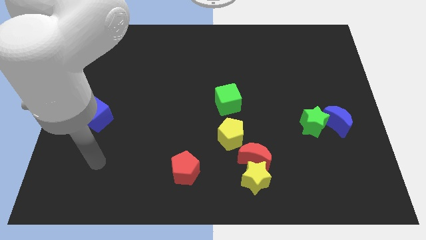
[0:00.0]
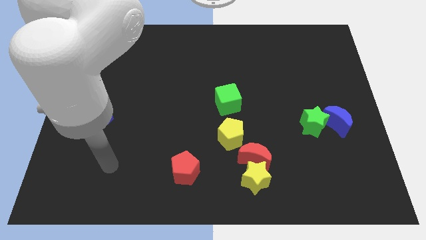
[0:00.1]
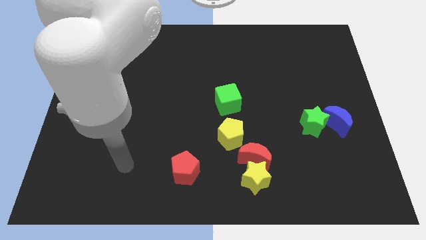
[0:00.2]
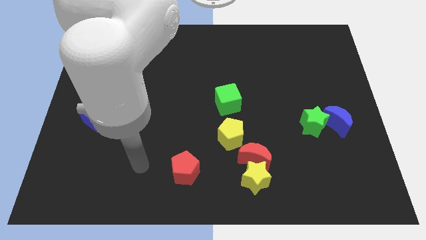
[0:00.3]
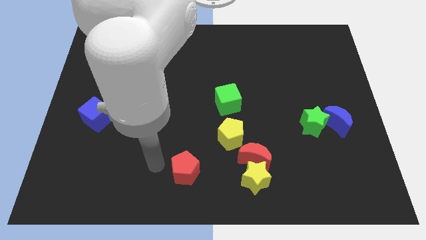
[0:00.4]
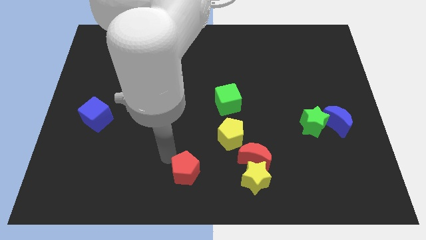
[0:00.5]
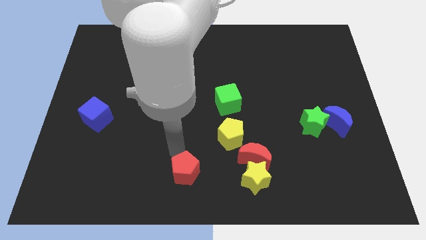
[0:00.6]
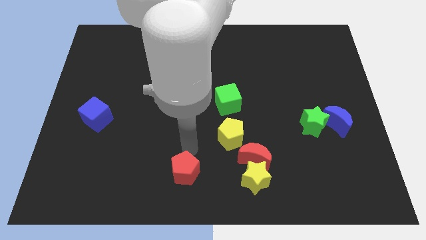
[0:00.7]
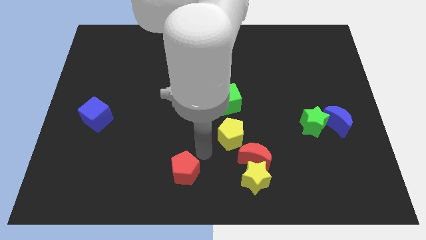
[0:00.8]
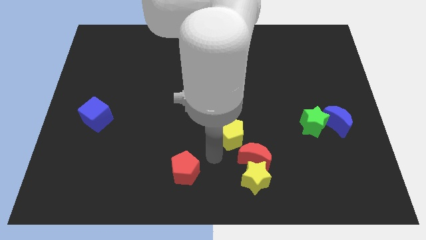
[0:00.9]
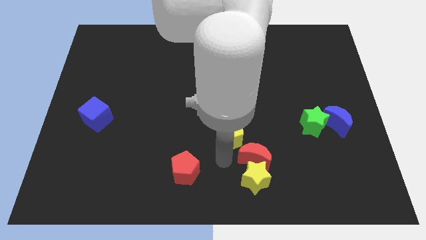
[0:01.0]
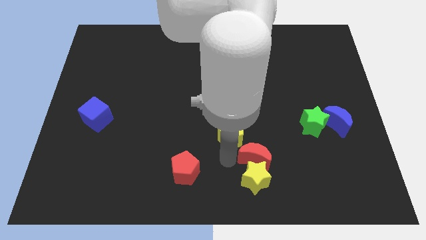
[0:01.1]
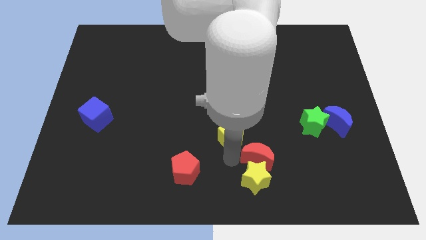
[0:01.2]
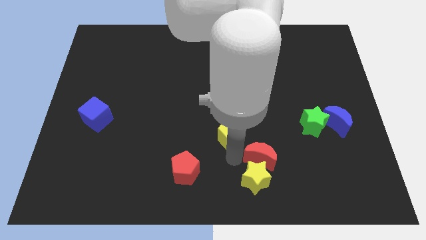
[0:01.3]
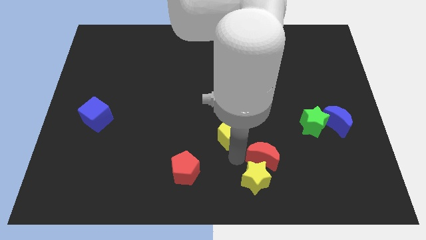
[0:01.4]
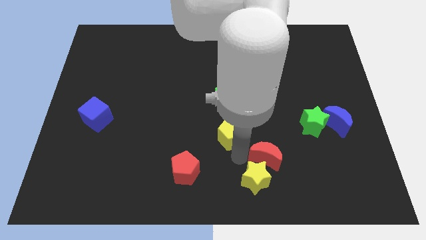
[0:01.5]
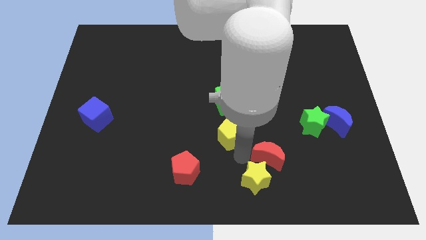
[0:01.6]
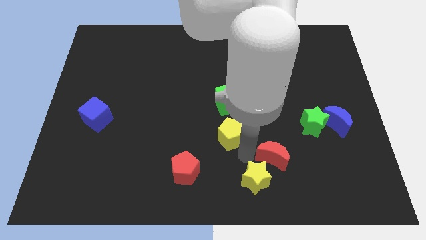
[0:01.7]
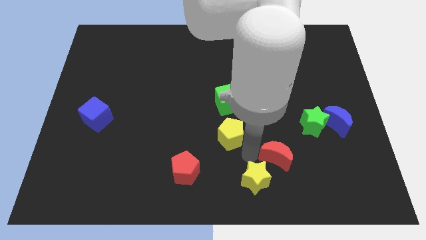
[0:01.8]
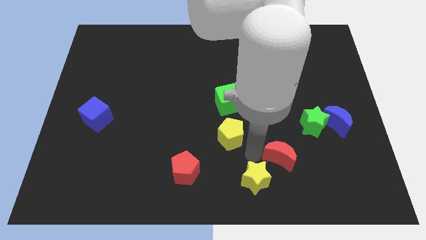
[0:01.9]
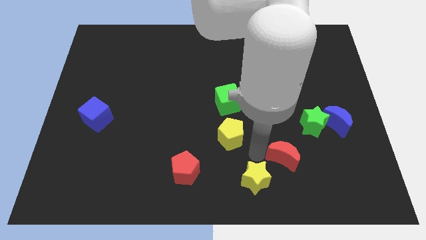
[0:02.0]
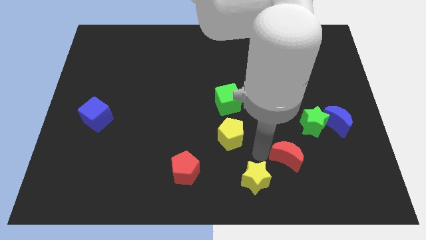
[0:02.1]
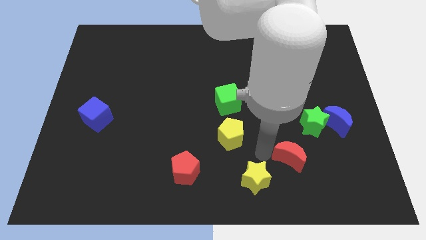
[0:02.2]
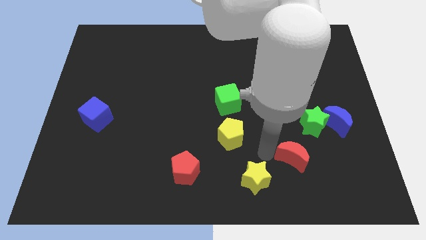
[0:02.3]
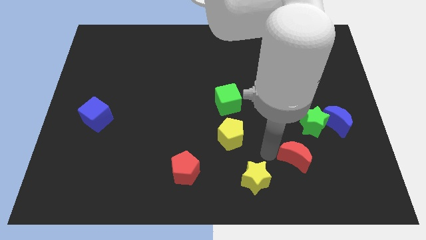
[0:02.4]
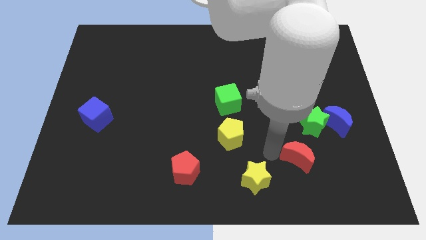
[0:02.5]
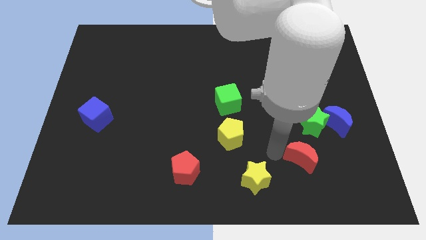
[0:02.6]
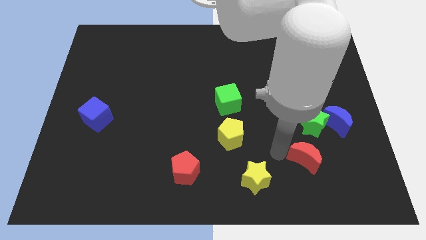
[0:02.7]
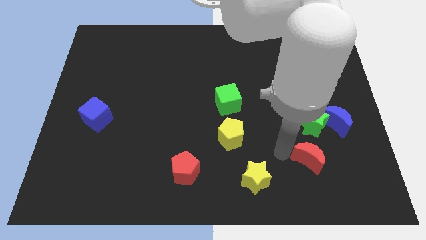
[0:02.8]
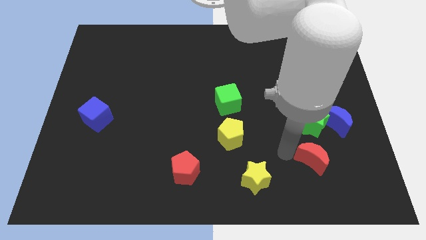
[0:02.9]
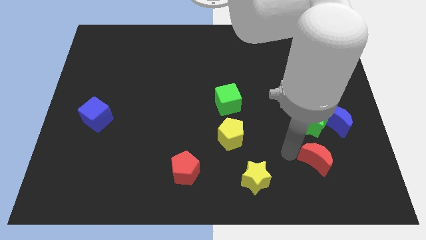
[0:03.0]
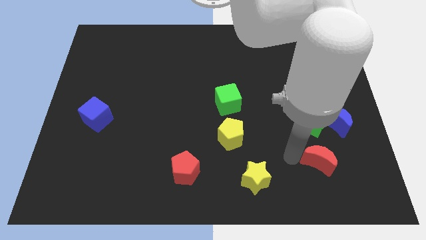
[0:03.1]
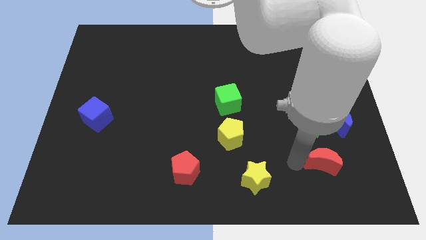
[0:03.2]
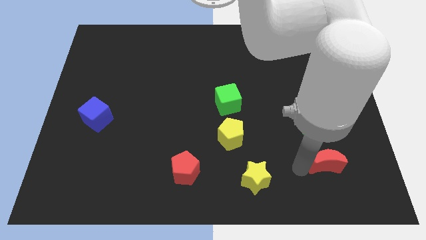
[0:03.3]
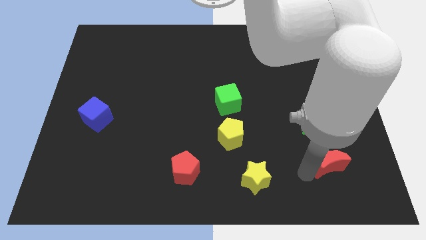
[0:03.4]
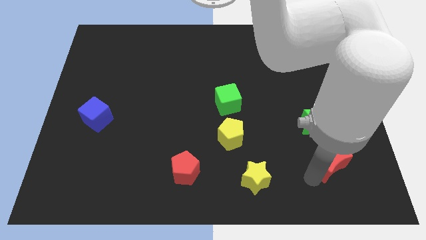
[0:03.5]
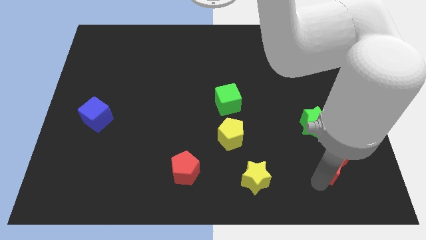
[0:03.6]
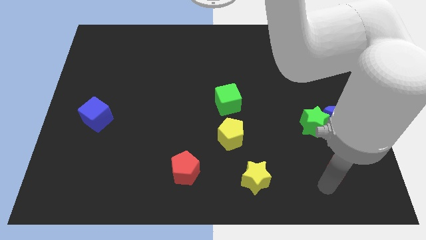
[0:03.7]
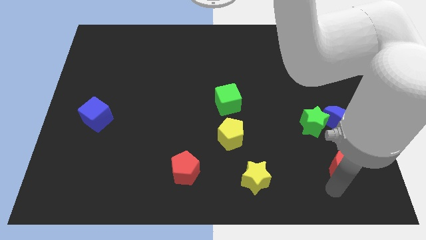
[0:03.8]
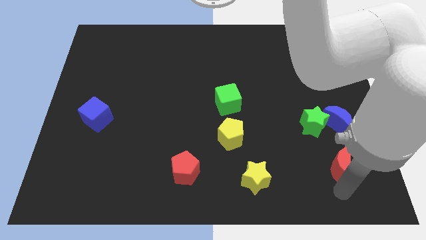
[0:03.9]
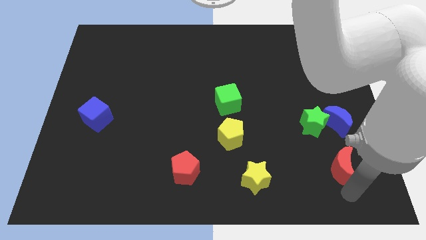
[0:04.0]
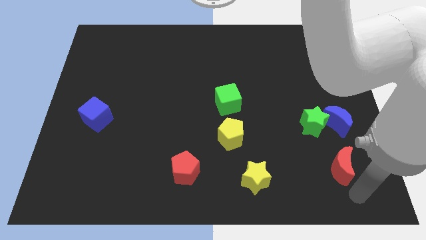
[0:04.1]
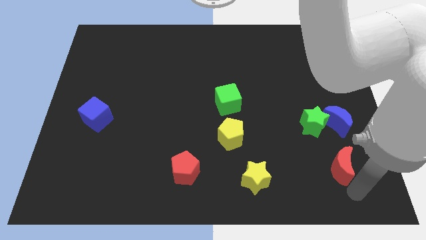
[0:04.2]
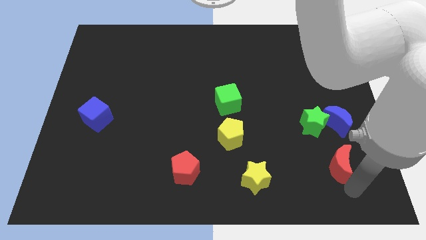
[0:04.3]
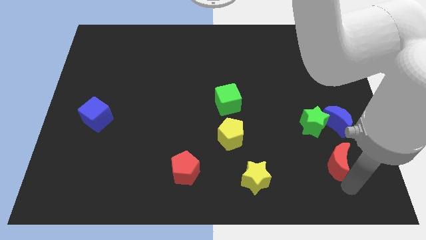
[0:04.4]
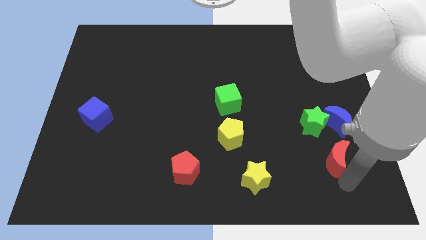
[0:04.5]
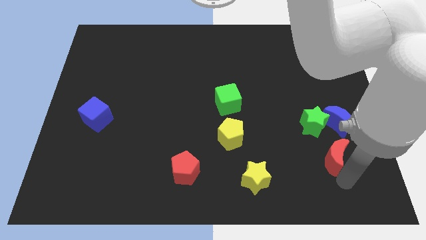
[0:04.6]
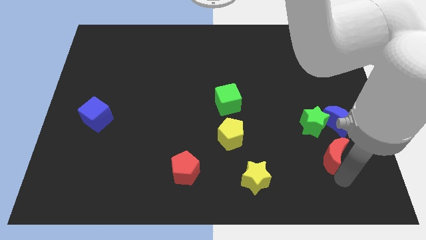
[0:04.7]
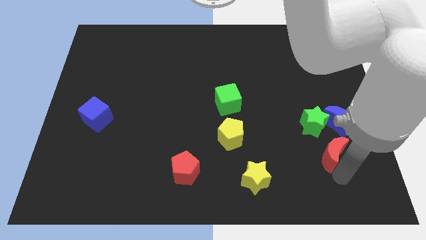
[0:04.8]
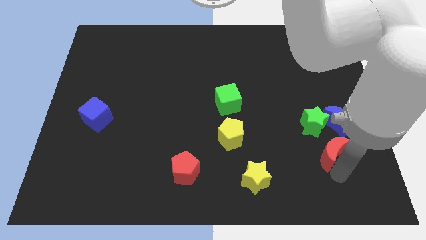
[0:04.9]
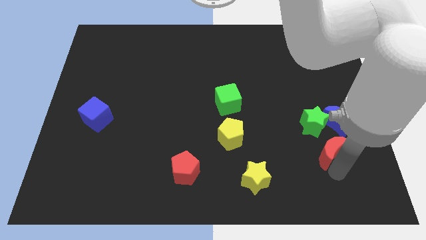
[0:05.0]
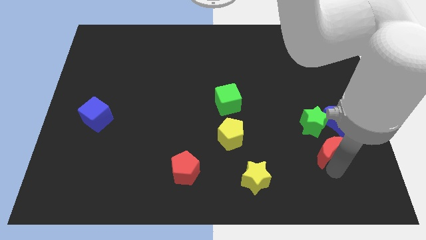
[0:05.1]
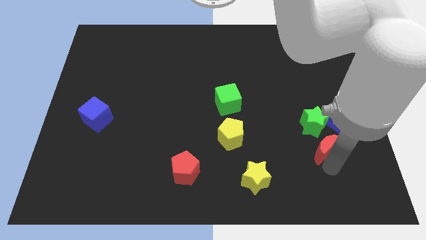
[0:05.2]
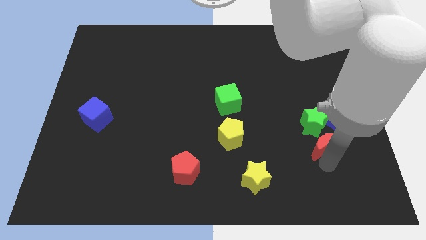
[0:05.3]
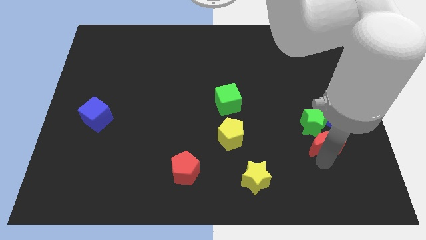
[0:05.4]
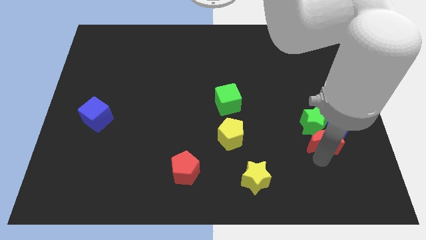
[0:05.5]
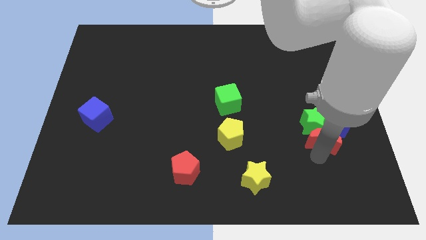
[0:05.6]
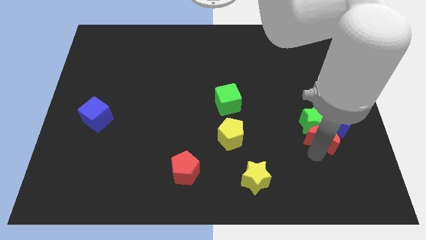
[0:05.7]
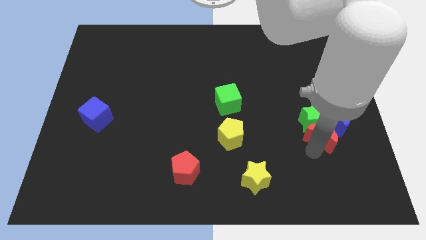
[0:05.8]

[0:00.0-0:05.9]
put the red moon towards the blue moon
